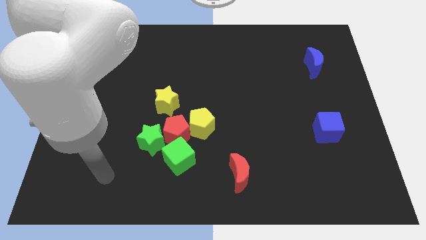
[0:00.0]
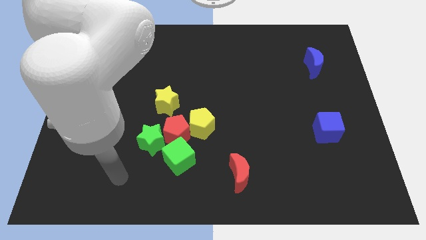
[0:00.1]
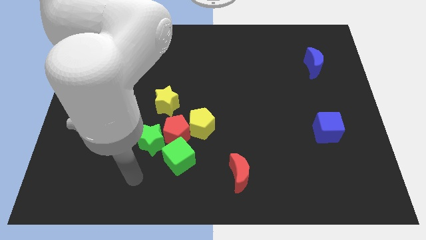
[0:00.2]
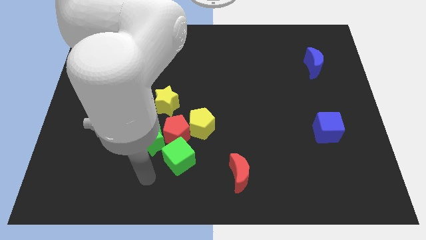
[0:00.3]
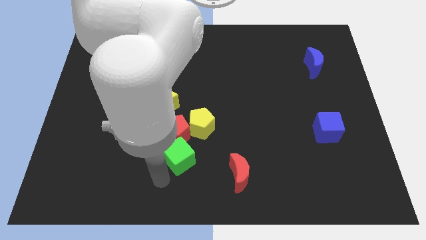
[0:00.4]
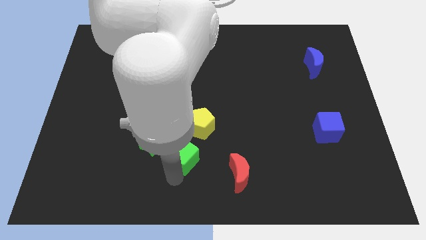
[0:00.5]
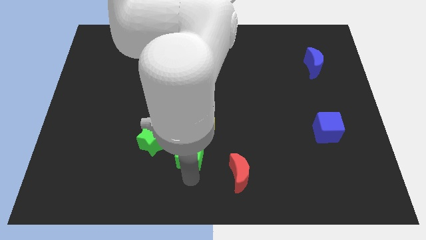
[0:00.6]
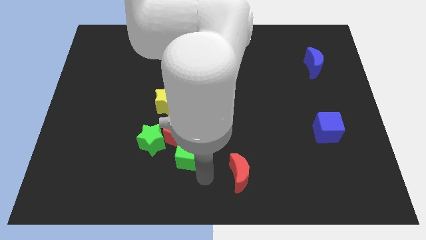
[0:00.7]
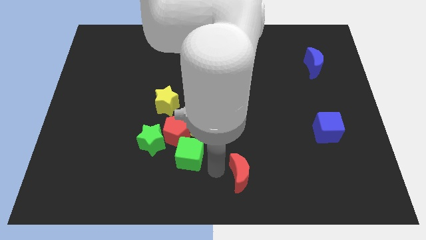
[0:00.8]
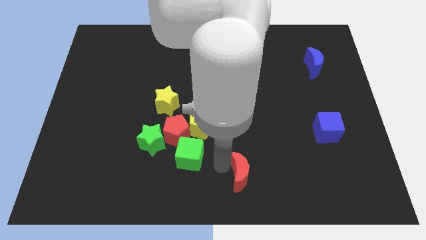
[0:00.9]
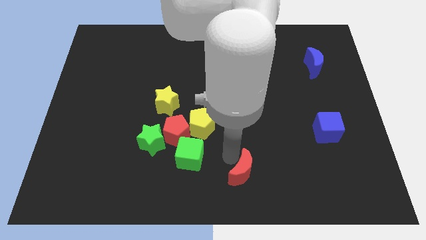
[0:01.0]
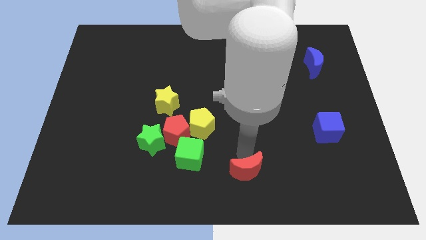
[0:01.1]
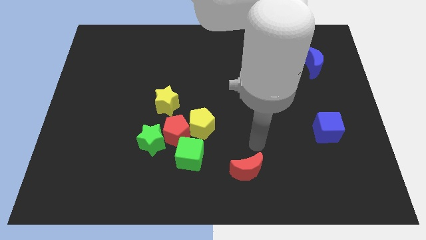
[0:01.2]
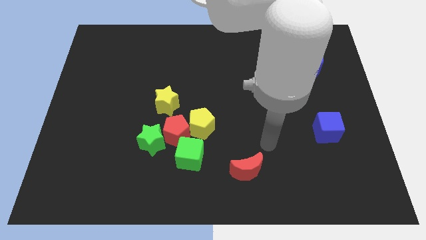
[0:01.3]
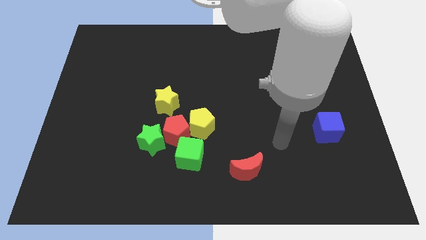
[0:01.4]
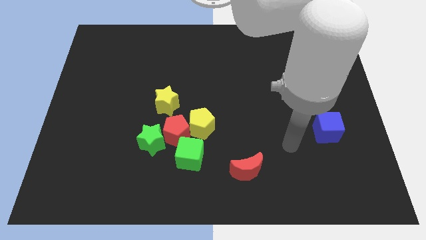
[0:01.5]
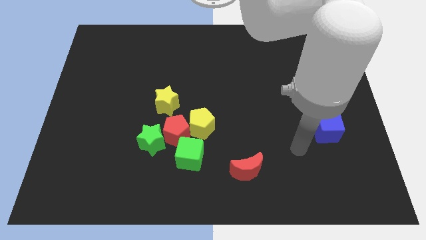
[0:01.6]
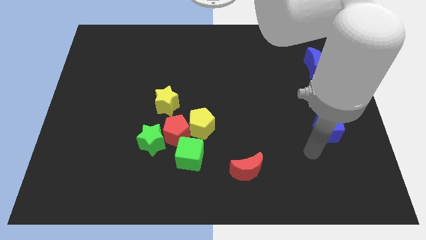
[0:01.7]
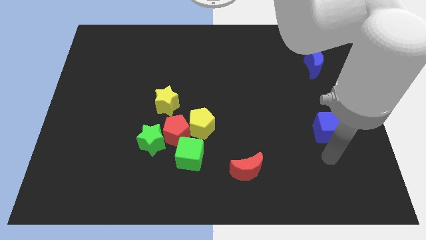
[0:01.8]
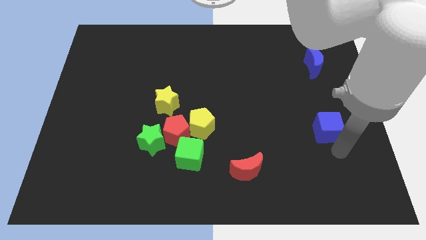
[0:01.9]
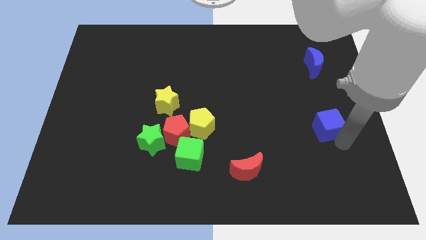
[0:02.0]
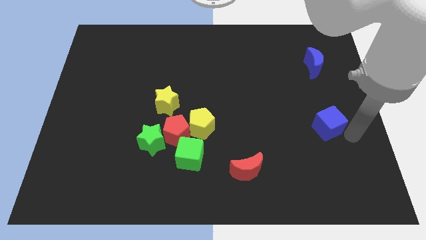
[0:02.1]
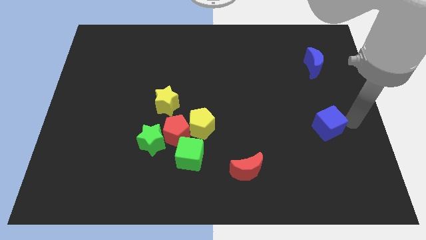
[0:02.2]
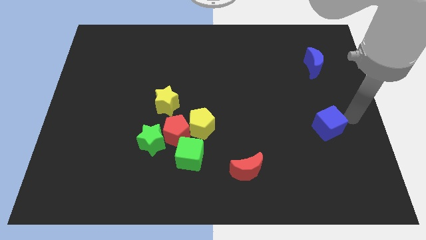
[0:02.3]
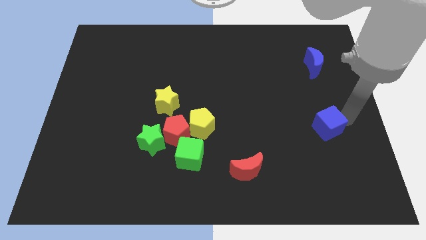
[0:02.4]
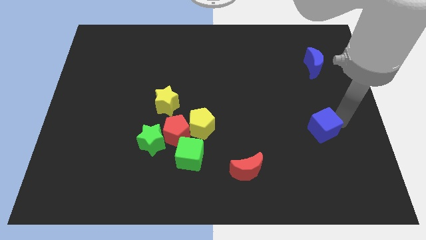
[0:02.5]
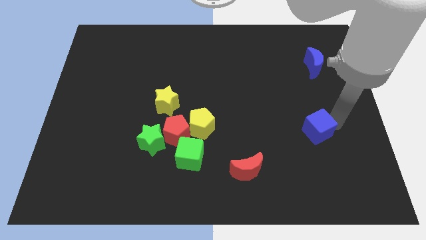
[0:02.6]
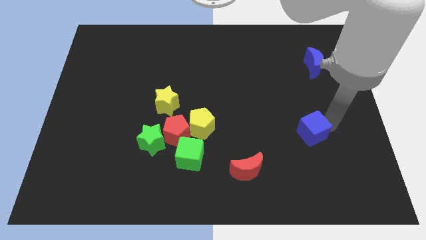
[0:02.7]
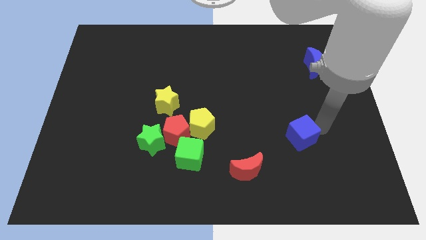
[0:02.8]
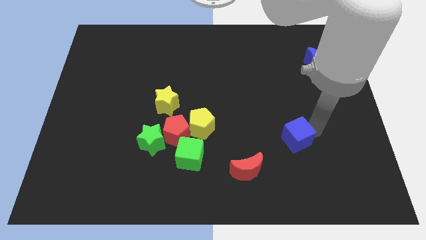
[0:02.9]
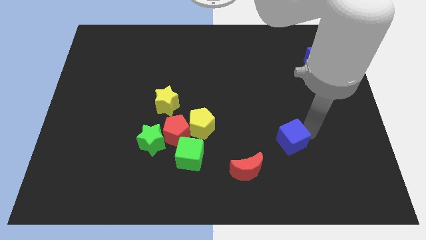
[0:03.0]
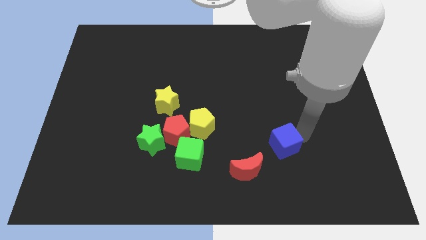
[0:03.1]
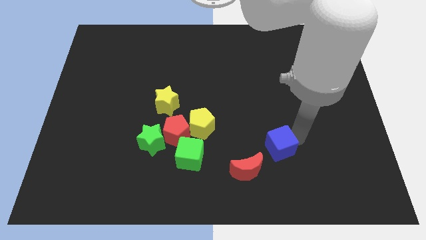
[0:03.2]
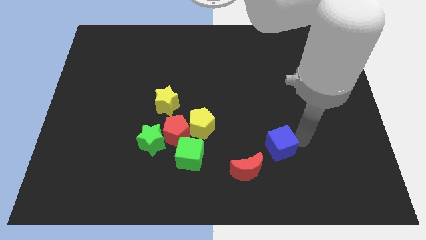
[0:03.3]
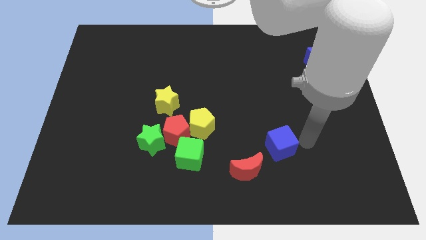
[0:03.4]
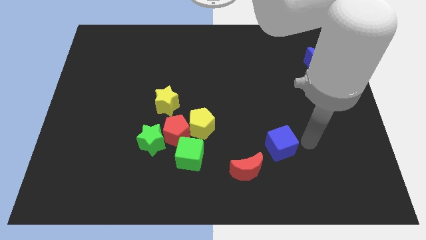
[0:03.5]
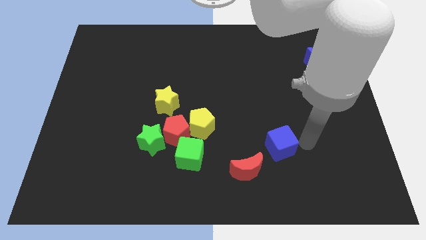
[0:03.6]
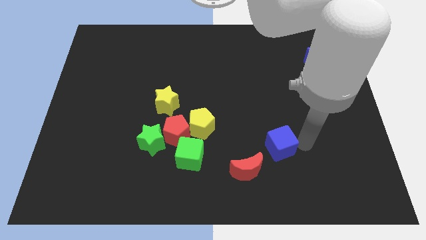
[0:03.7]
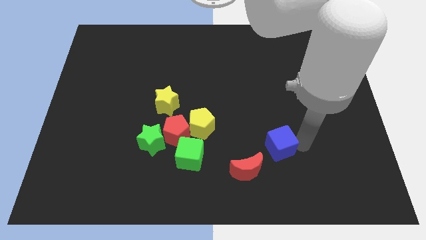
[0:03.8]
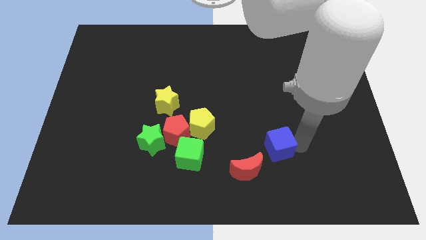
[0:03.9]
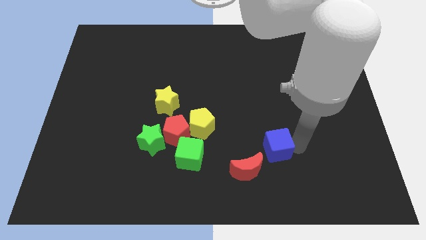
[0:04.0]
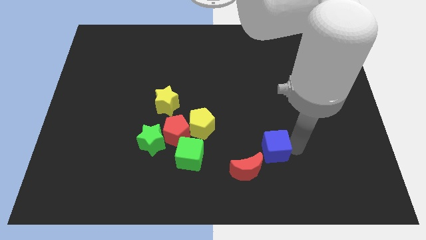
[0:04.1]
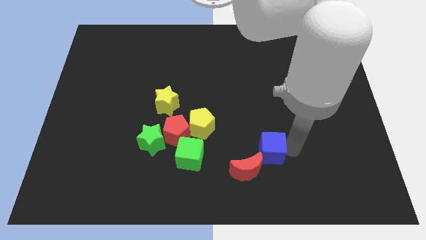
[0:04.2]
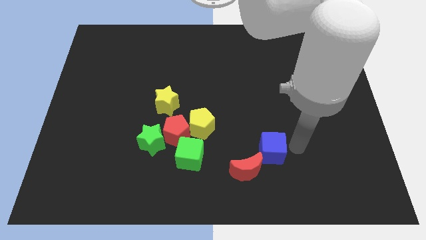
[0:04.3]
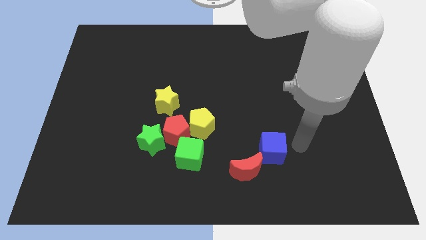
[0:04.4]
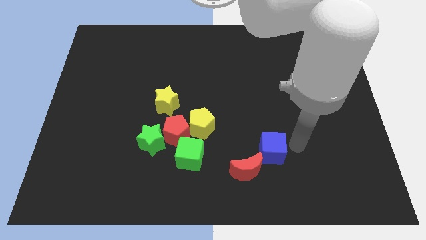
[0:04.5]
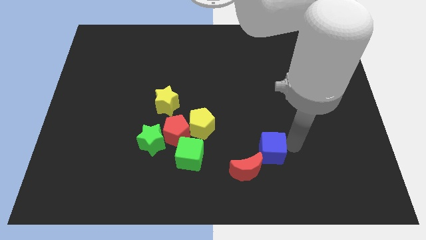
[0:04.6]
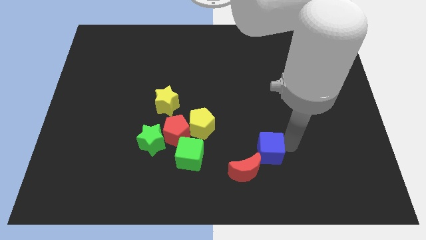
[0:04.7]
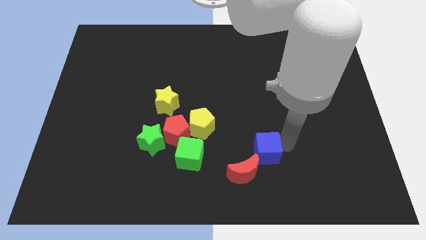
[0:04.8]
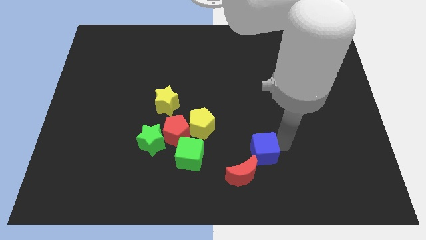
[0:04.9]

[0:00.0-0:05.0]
slide the blue cube to the right of the green cube

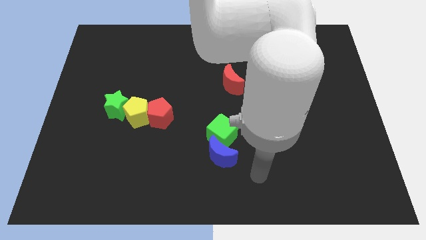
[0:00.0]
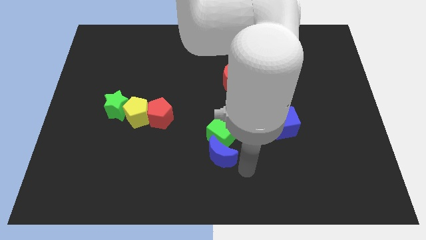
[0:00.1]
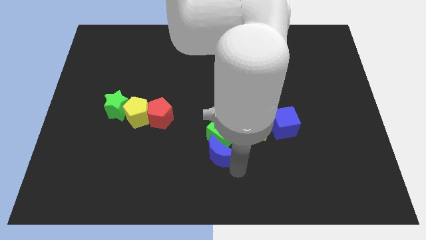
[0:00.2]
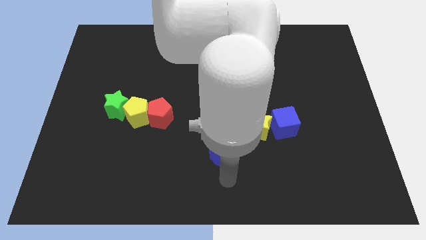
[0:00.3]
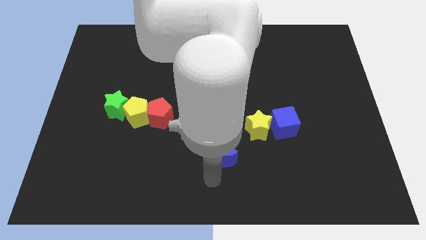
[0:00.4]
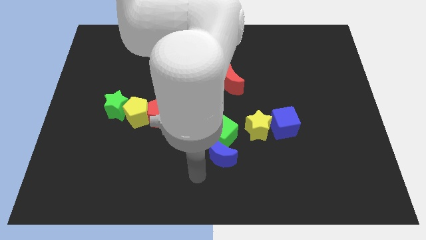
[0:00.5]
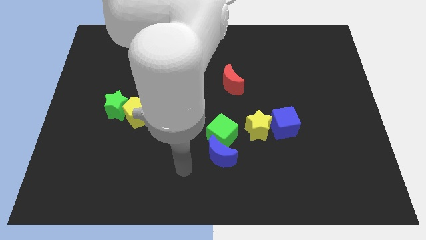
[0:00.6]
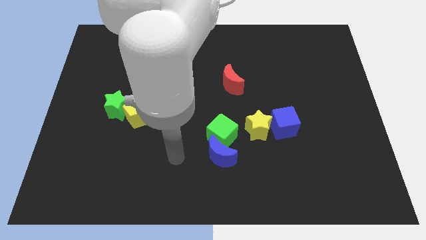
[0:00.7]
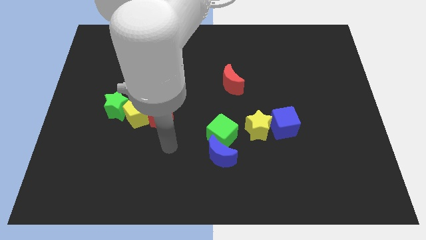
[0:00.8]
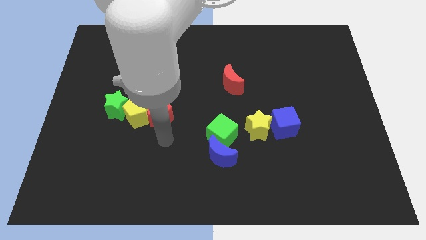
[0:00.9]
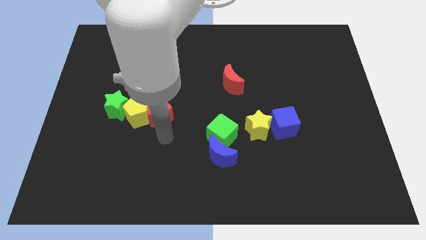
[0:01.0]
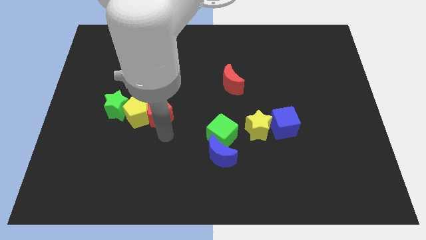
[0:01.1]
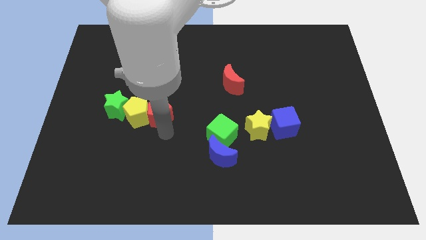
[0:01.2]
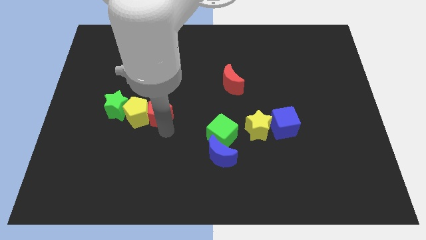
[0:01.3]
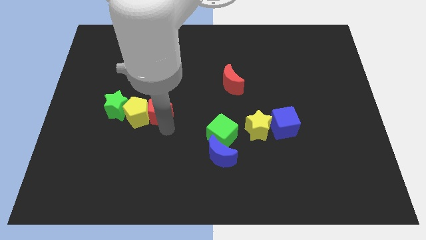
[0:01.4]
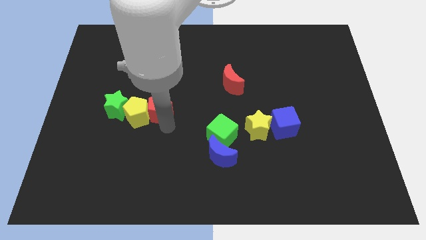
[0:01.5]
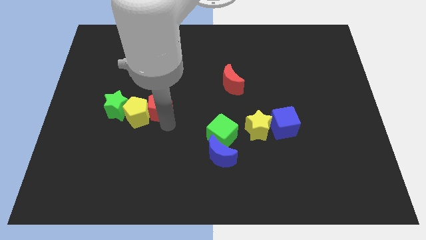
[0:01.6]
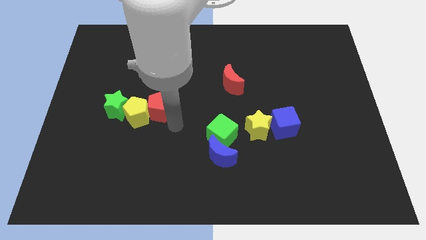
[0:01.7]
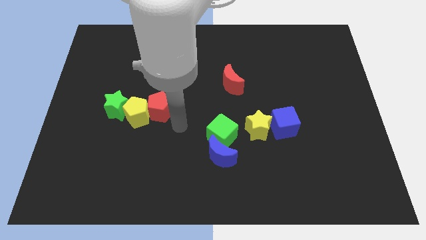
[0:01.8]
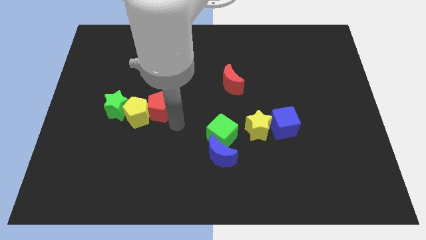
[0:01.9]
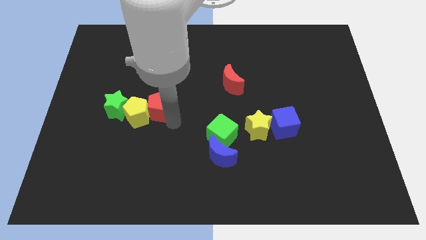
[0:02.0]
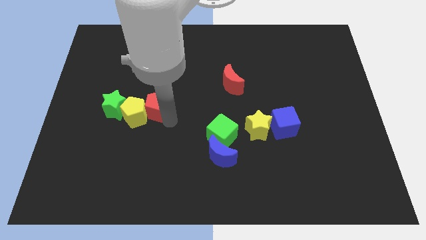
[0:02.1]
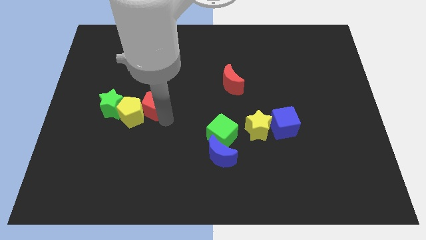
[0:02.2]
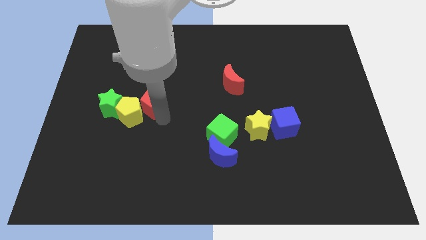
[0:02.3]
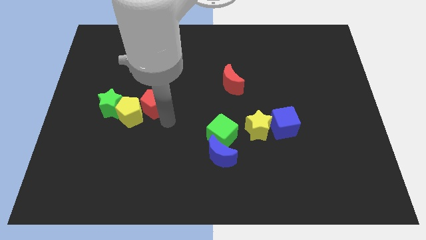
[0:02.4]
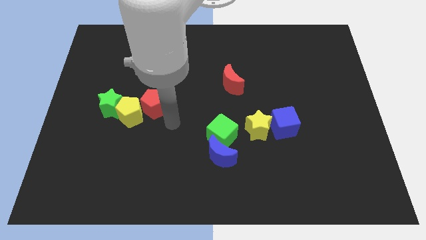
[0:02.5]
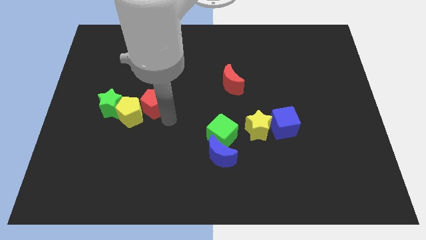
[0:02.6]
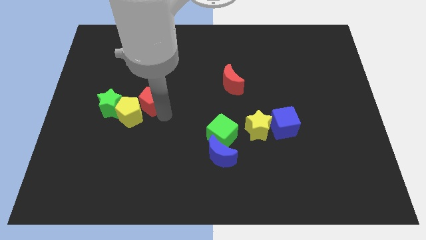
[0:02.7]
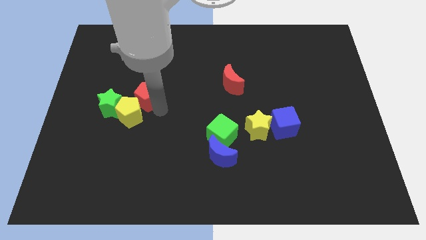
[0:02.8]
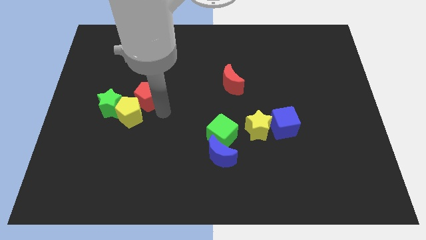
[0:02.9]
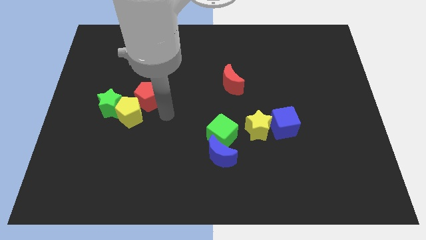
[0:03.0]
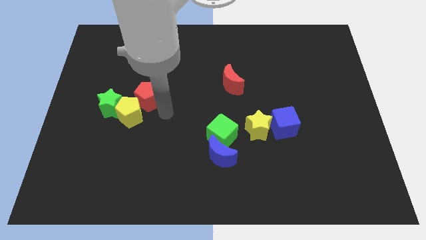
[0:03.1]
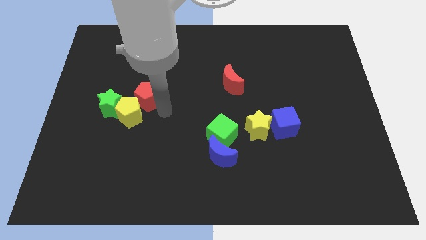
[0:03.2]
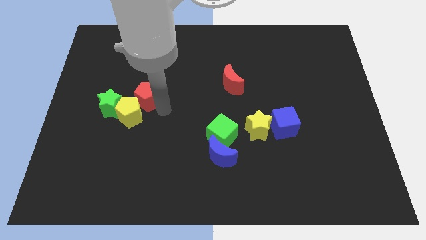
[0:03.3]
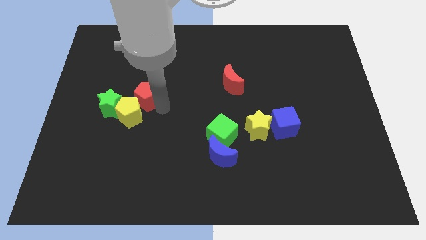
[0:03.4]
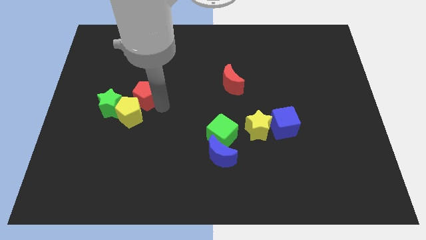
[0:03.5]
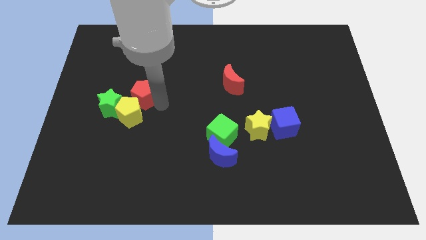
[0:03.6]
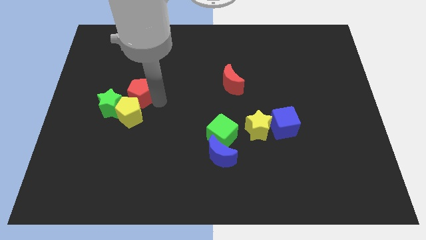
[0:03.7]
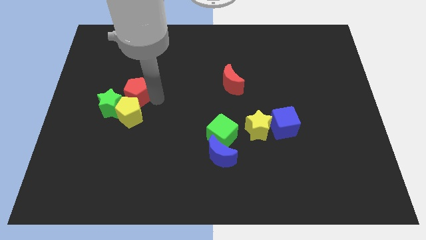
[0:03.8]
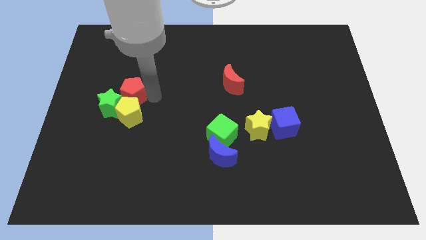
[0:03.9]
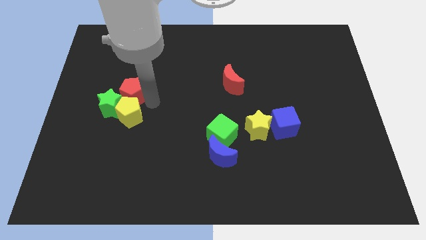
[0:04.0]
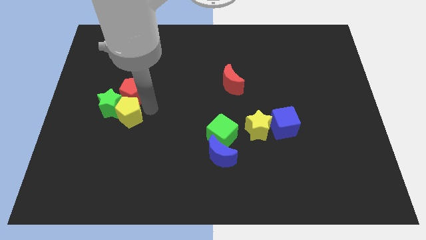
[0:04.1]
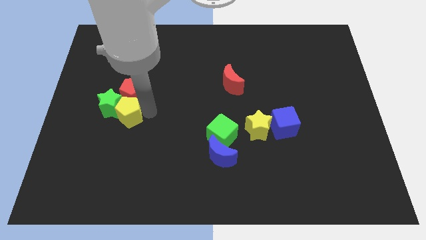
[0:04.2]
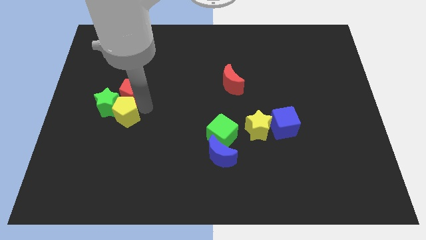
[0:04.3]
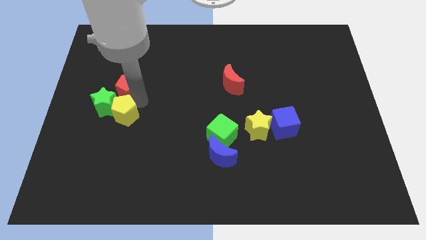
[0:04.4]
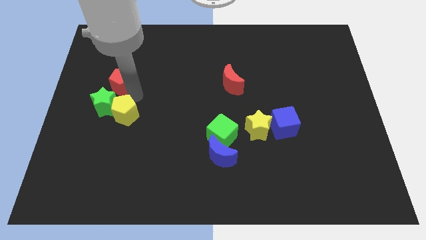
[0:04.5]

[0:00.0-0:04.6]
push the red pentagon to the top side of the green star
